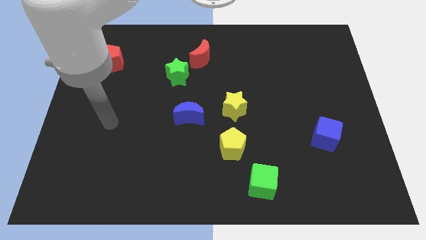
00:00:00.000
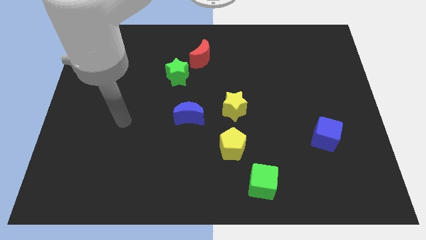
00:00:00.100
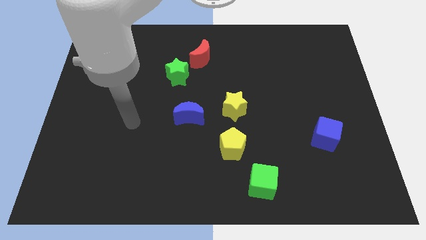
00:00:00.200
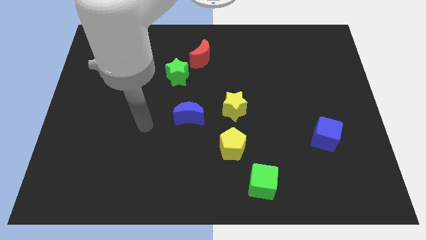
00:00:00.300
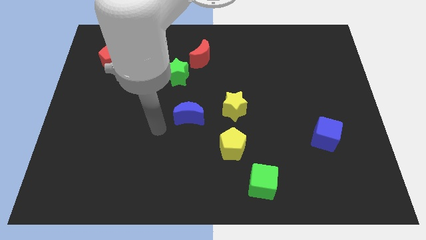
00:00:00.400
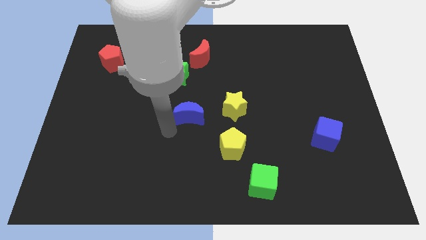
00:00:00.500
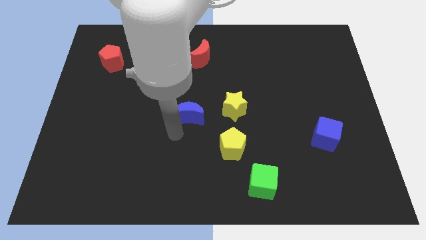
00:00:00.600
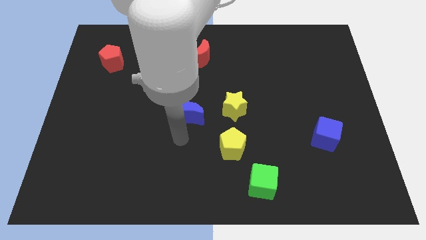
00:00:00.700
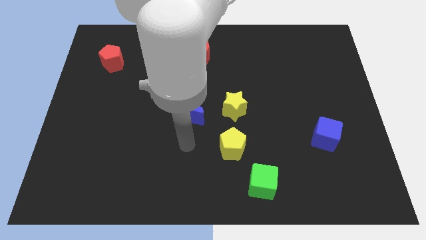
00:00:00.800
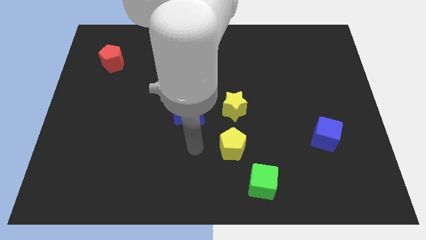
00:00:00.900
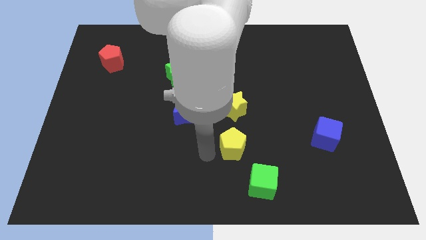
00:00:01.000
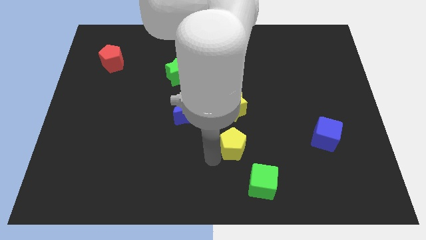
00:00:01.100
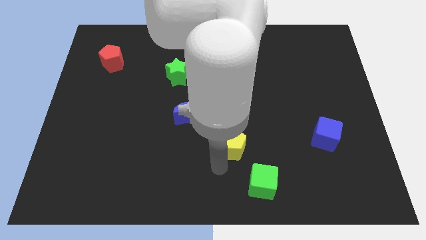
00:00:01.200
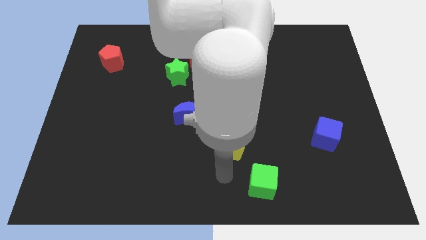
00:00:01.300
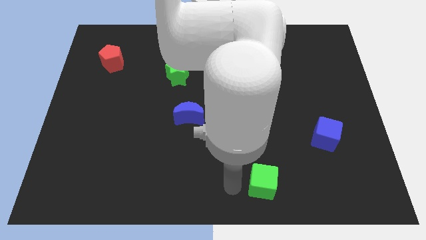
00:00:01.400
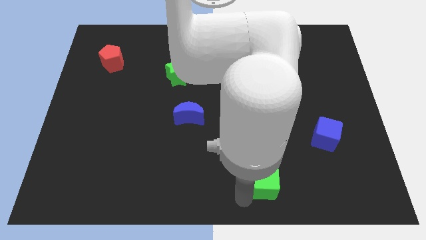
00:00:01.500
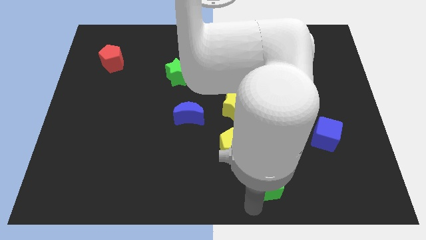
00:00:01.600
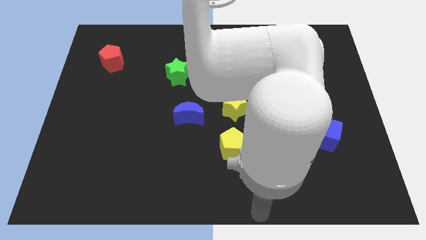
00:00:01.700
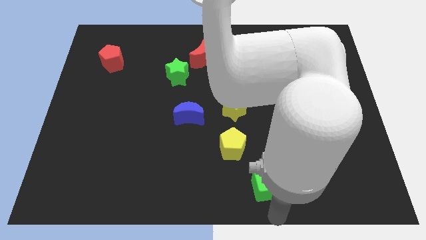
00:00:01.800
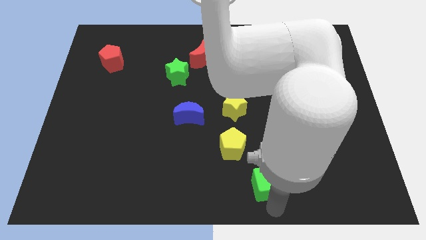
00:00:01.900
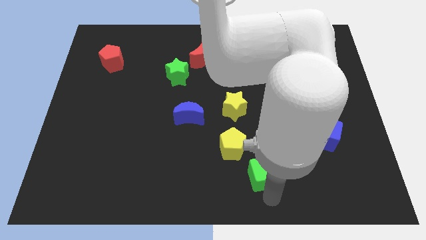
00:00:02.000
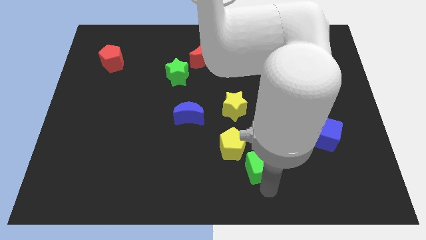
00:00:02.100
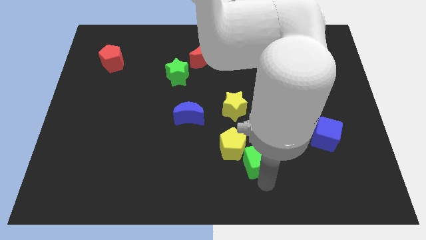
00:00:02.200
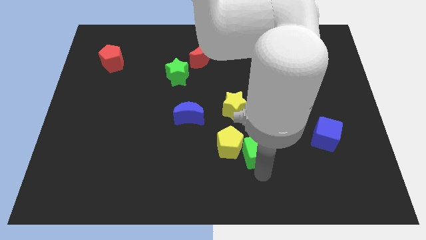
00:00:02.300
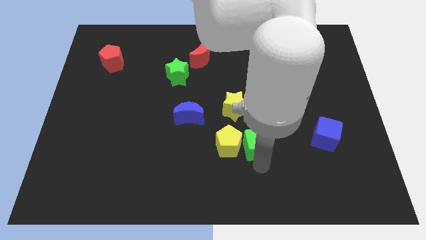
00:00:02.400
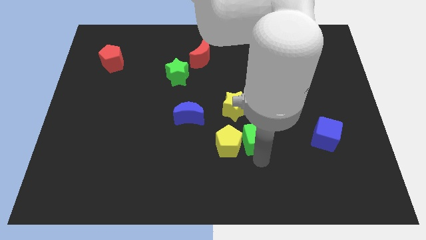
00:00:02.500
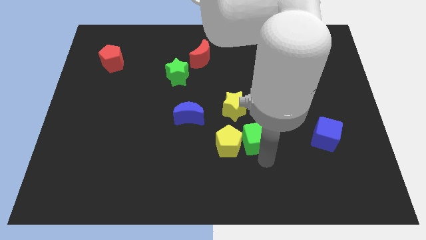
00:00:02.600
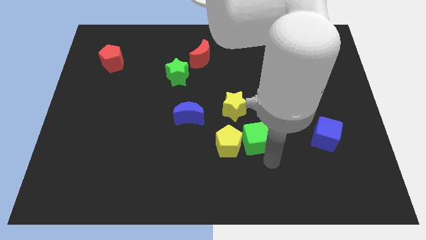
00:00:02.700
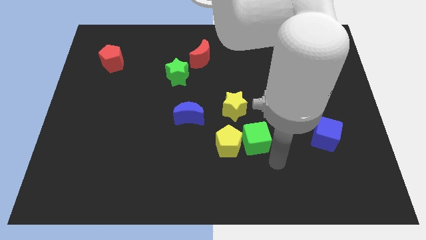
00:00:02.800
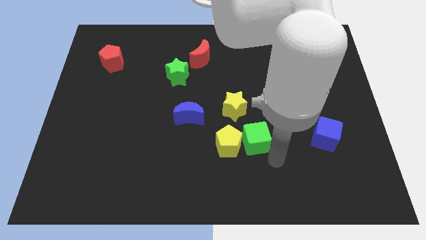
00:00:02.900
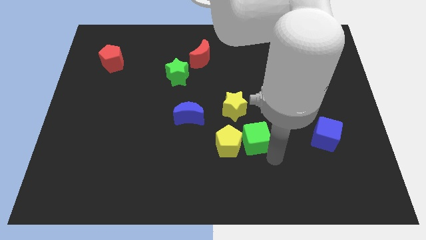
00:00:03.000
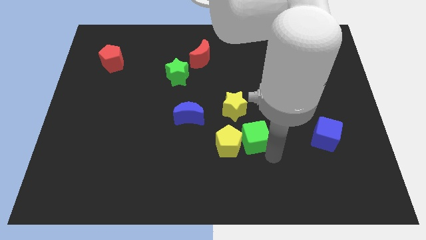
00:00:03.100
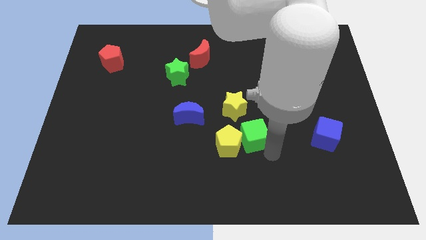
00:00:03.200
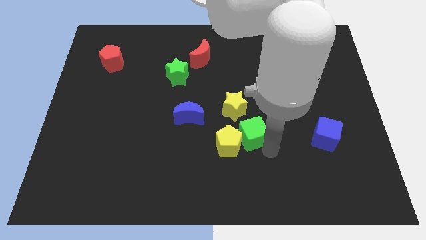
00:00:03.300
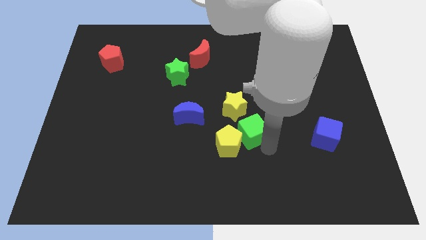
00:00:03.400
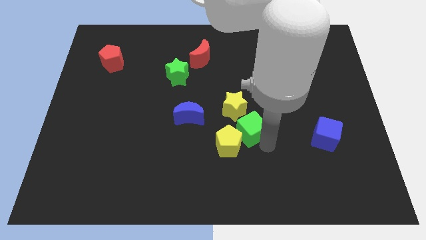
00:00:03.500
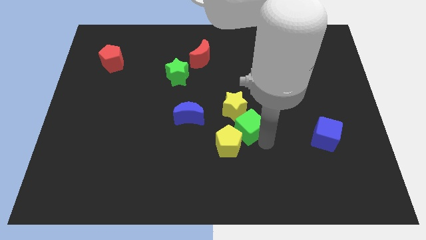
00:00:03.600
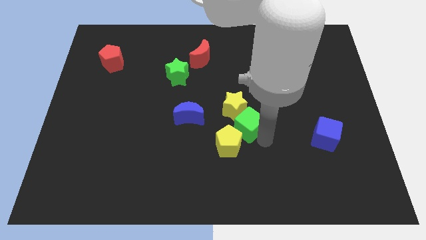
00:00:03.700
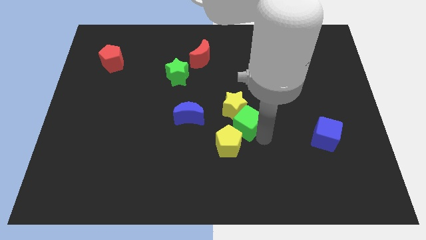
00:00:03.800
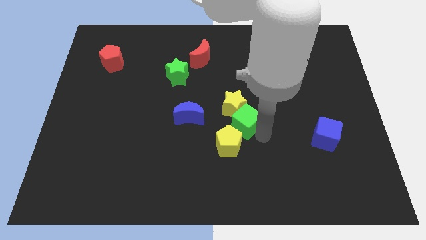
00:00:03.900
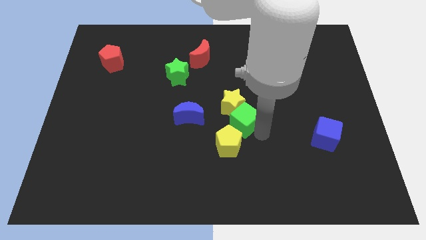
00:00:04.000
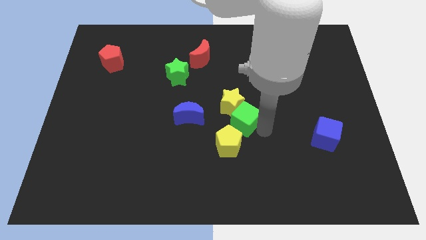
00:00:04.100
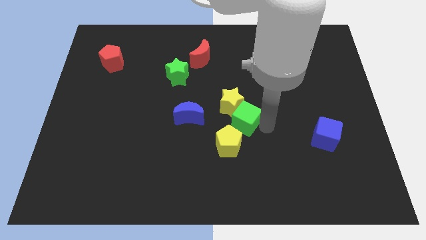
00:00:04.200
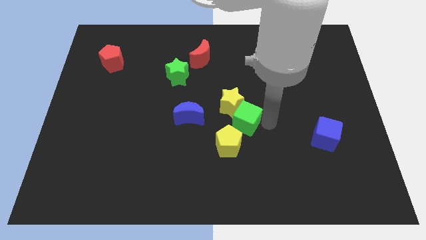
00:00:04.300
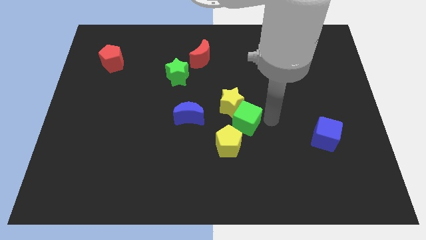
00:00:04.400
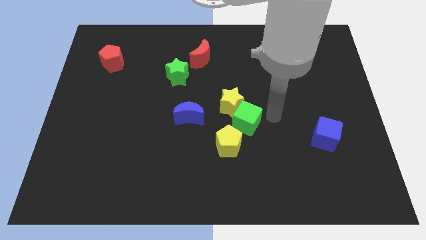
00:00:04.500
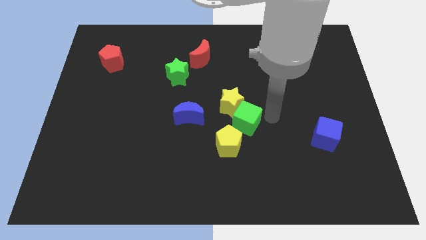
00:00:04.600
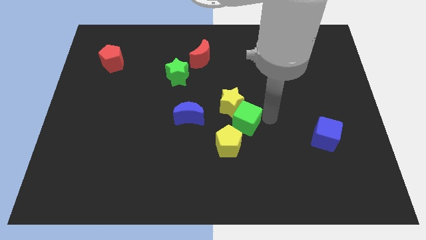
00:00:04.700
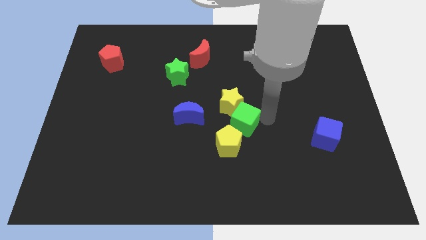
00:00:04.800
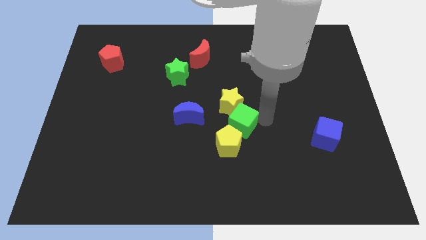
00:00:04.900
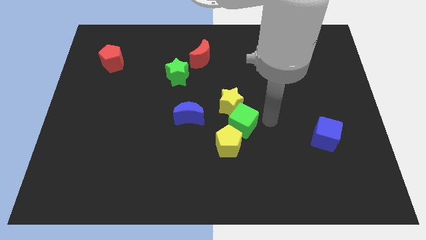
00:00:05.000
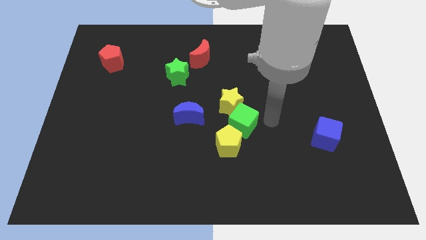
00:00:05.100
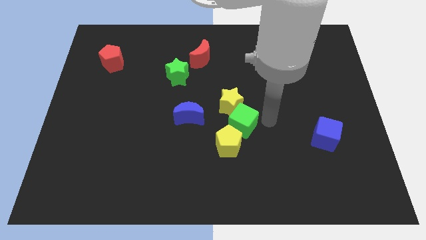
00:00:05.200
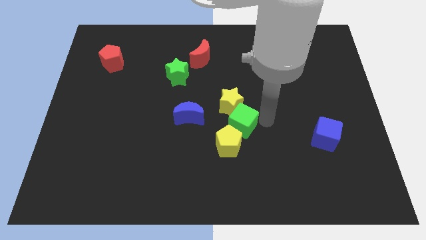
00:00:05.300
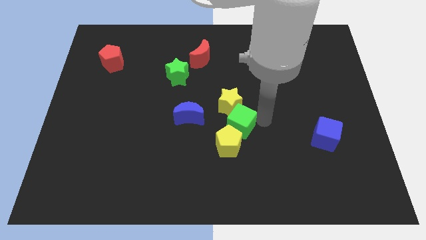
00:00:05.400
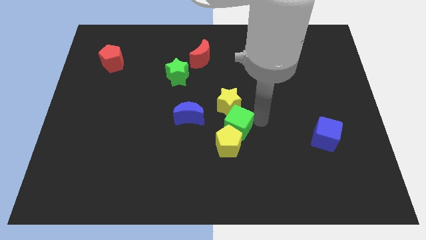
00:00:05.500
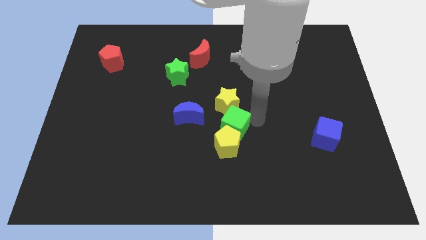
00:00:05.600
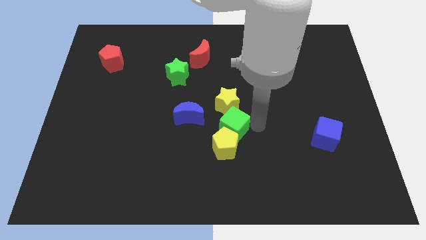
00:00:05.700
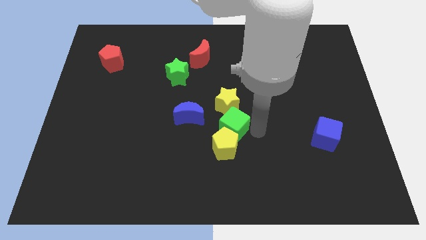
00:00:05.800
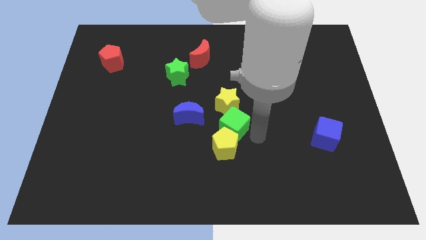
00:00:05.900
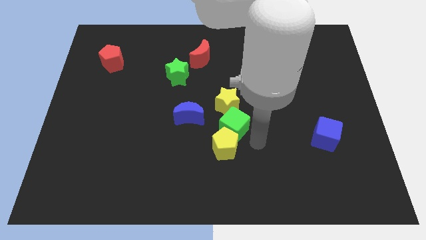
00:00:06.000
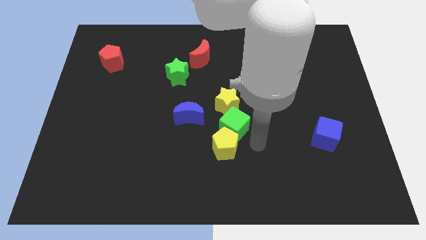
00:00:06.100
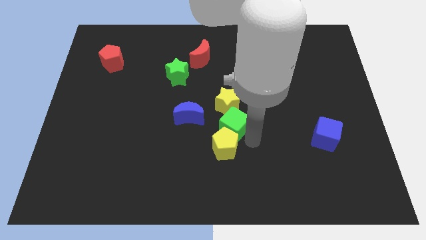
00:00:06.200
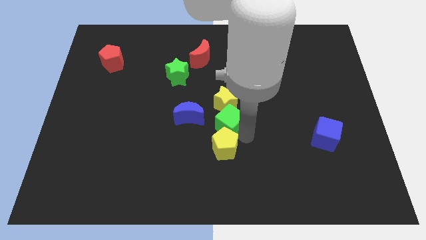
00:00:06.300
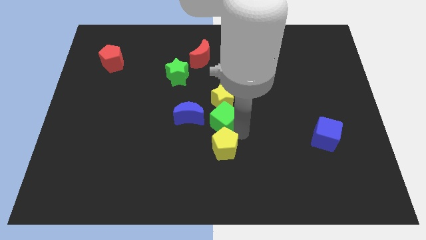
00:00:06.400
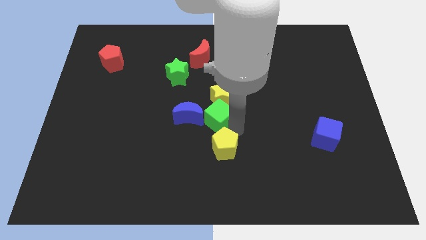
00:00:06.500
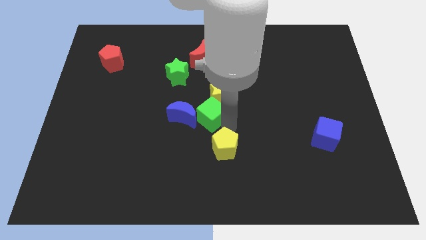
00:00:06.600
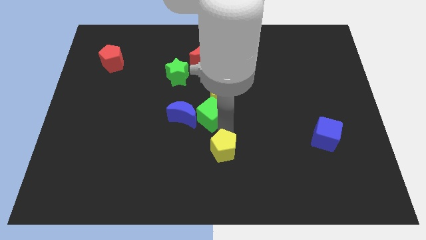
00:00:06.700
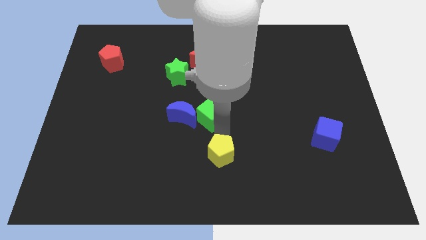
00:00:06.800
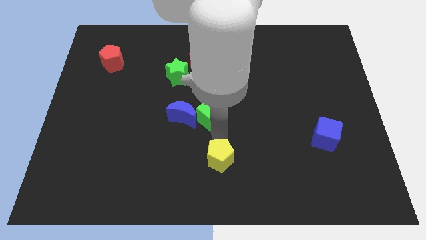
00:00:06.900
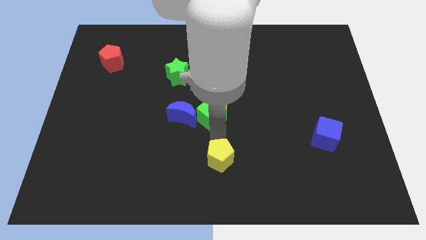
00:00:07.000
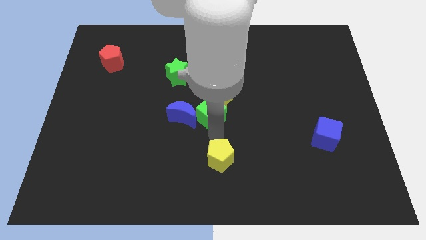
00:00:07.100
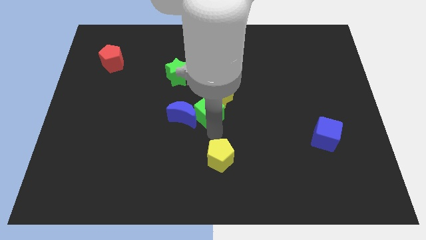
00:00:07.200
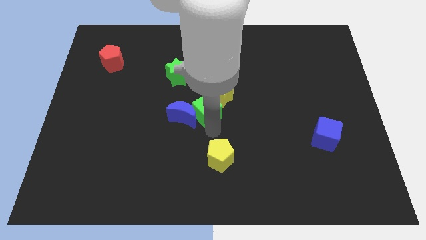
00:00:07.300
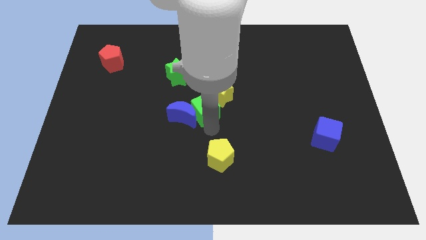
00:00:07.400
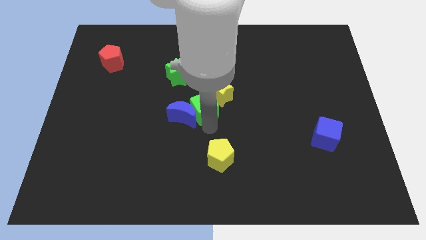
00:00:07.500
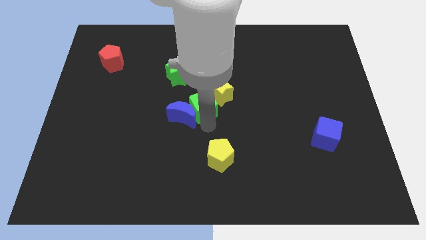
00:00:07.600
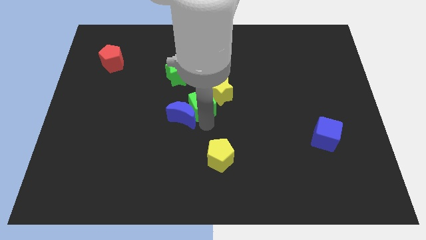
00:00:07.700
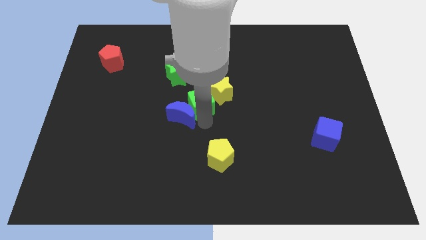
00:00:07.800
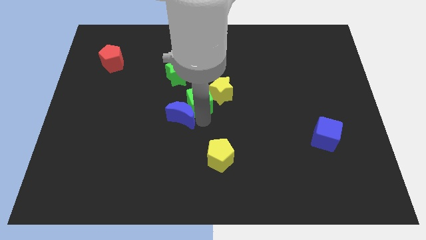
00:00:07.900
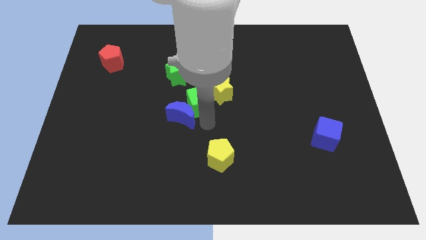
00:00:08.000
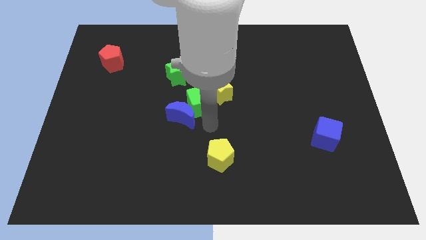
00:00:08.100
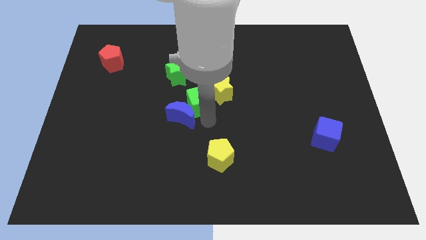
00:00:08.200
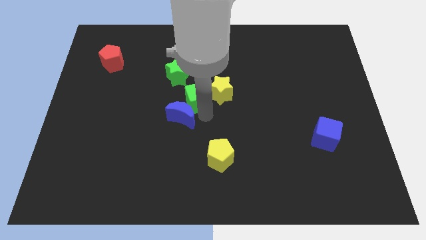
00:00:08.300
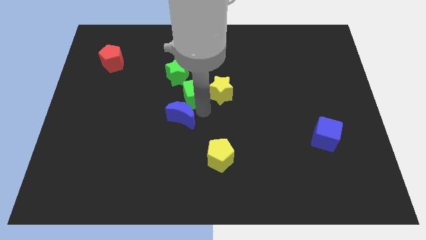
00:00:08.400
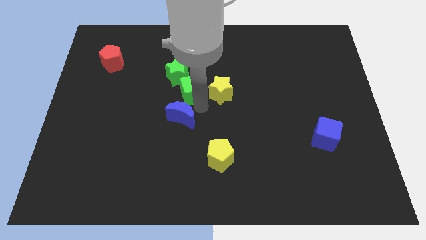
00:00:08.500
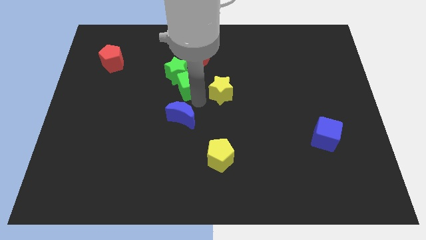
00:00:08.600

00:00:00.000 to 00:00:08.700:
put the green cube to the green star
